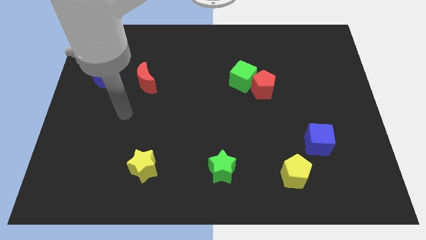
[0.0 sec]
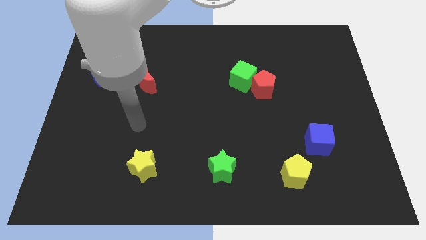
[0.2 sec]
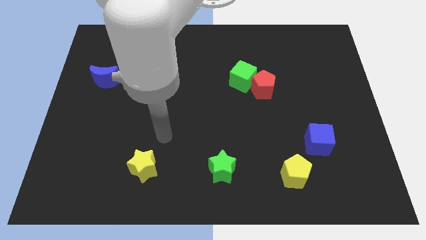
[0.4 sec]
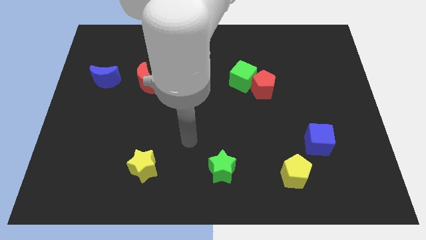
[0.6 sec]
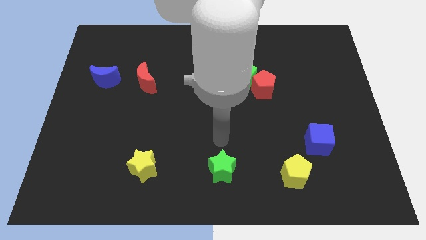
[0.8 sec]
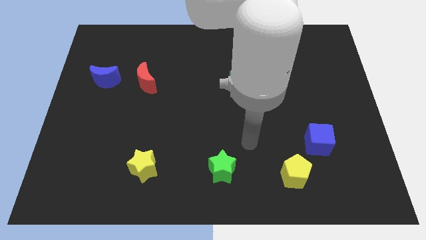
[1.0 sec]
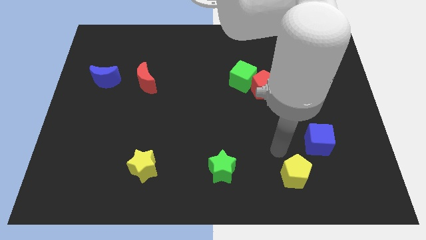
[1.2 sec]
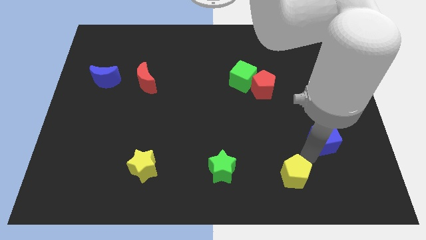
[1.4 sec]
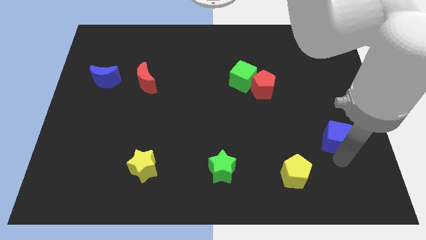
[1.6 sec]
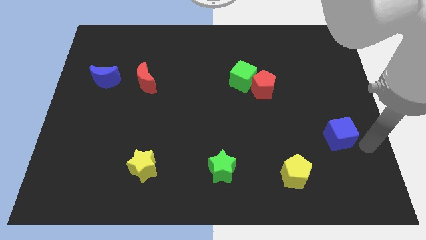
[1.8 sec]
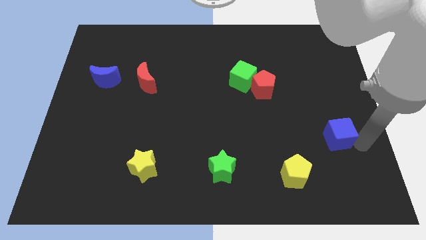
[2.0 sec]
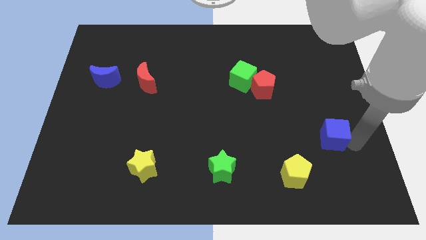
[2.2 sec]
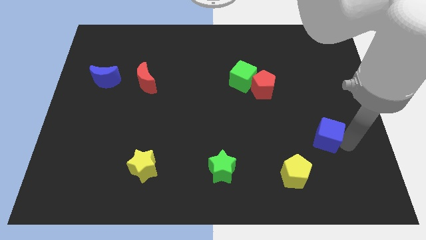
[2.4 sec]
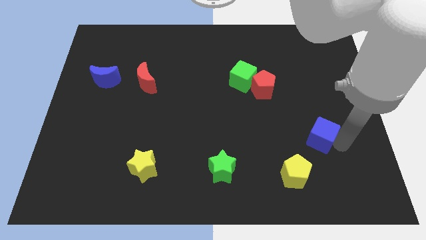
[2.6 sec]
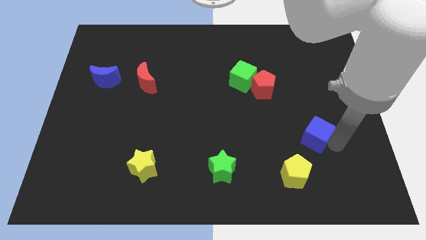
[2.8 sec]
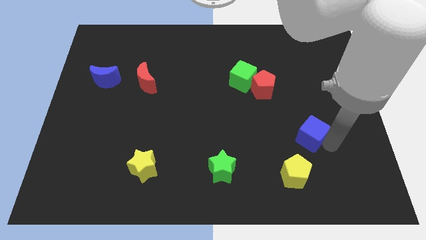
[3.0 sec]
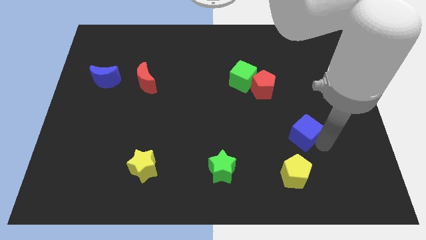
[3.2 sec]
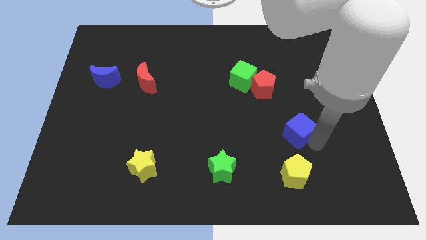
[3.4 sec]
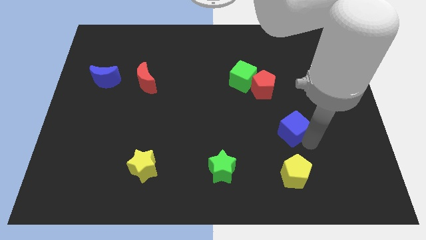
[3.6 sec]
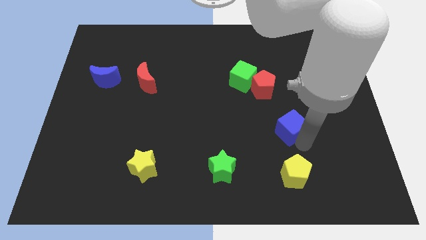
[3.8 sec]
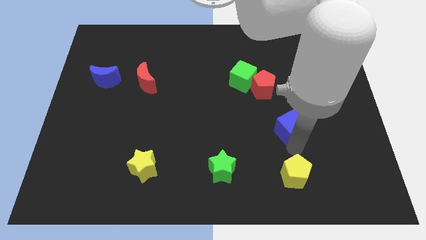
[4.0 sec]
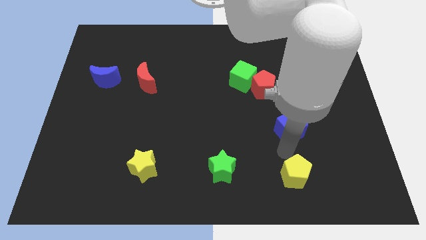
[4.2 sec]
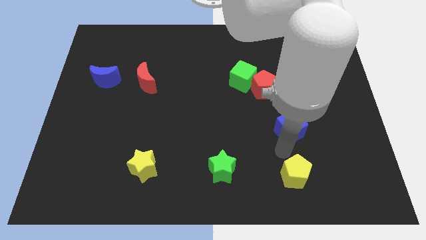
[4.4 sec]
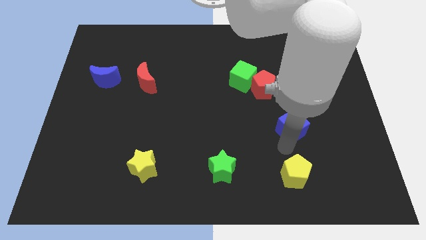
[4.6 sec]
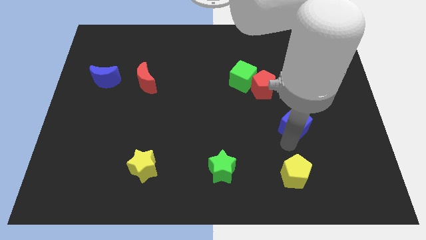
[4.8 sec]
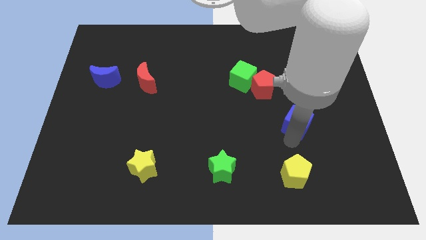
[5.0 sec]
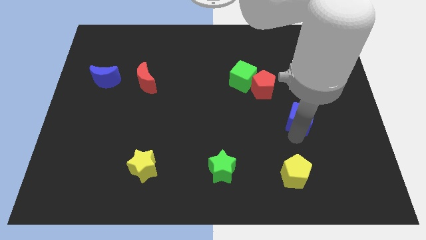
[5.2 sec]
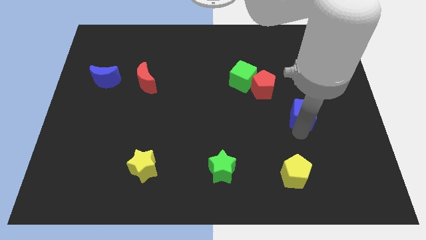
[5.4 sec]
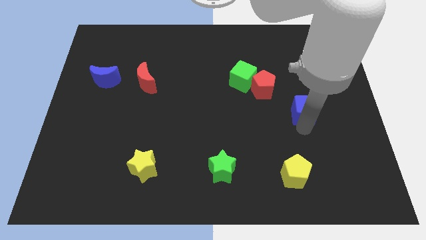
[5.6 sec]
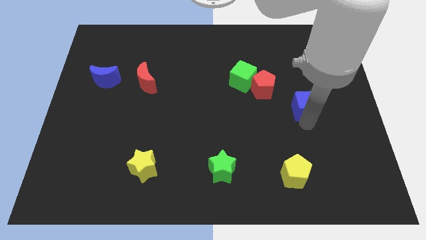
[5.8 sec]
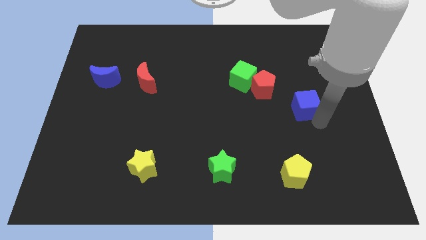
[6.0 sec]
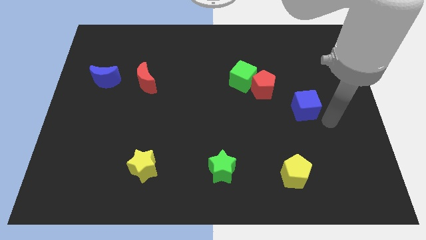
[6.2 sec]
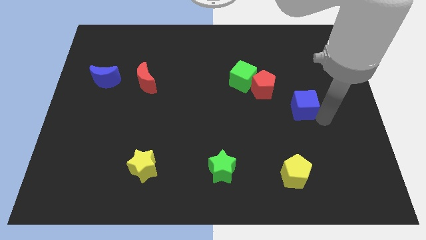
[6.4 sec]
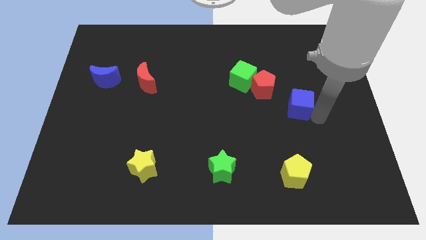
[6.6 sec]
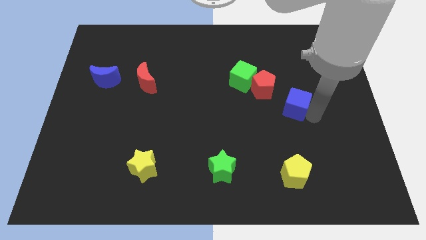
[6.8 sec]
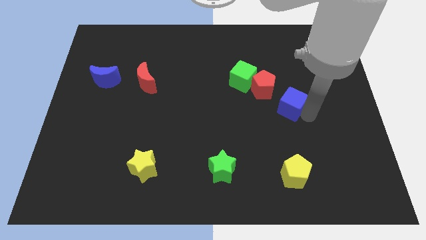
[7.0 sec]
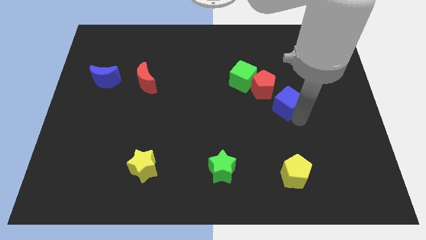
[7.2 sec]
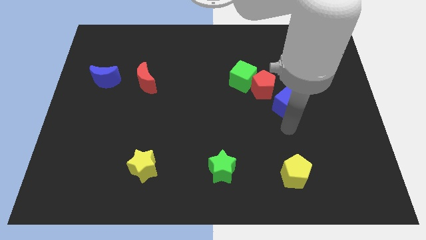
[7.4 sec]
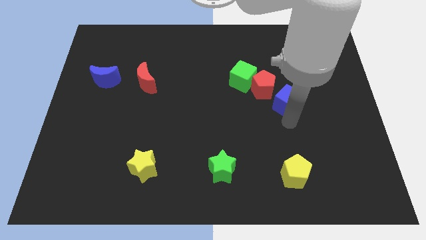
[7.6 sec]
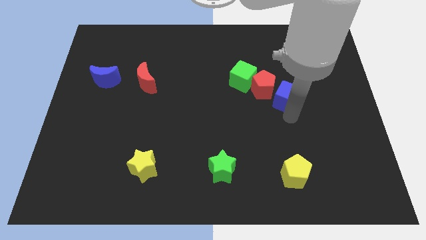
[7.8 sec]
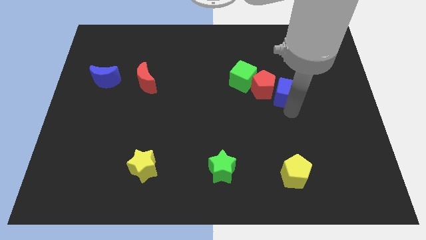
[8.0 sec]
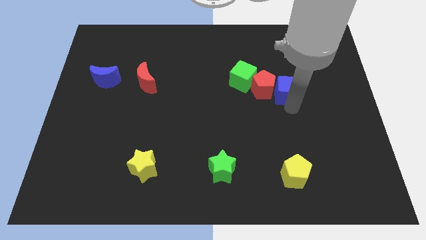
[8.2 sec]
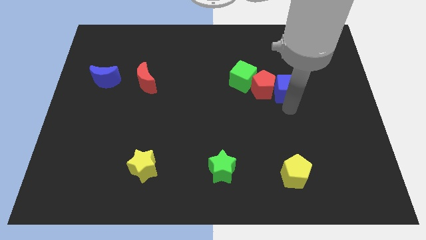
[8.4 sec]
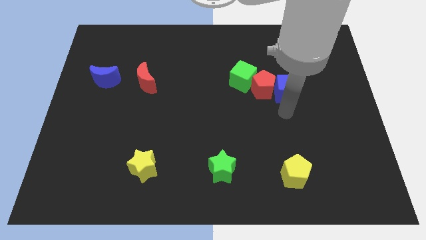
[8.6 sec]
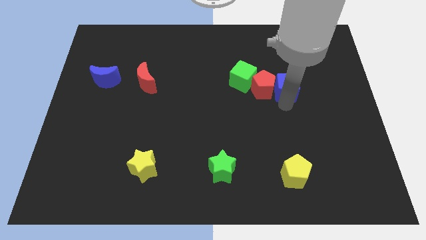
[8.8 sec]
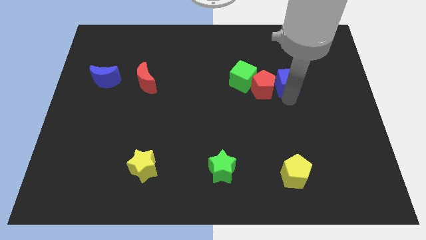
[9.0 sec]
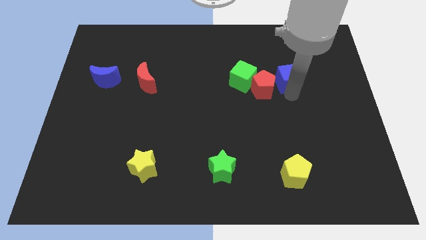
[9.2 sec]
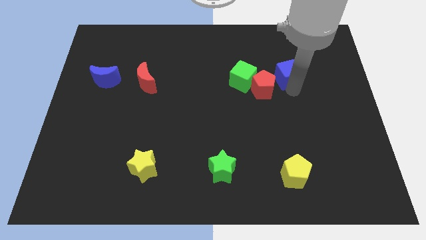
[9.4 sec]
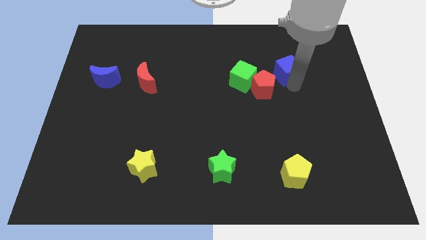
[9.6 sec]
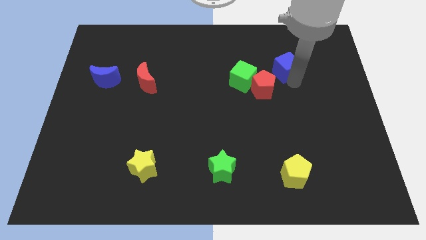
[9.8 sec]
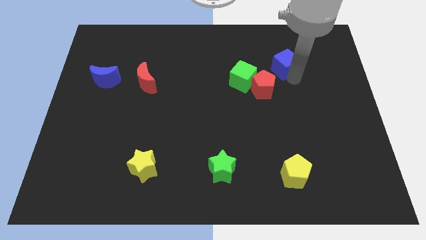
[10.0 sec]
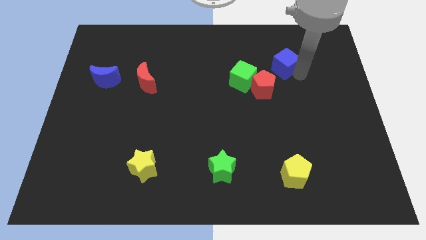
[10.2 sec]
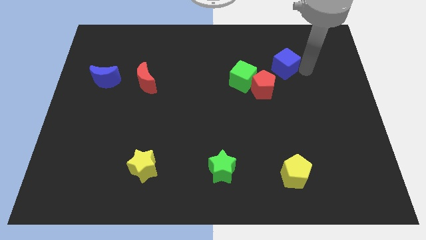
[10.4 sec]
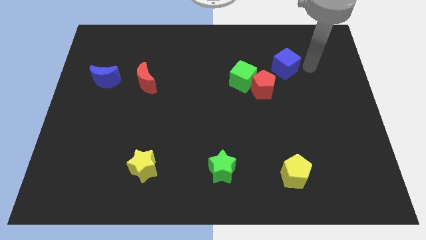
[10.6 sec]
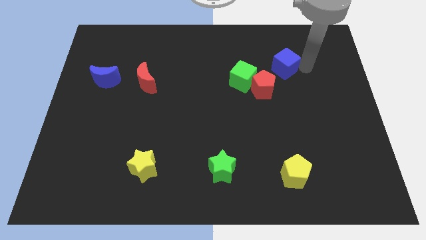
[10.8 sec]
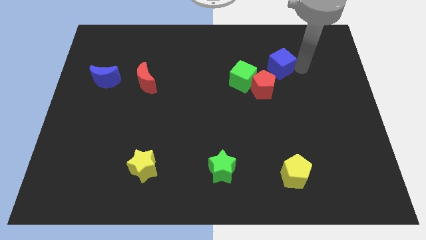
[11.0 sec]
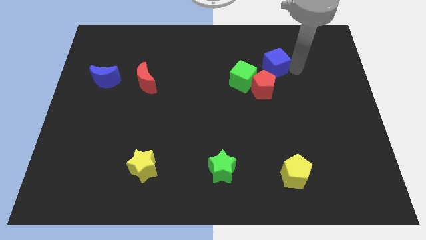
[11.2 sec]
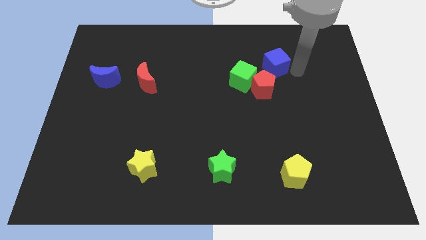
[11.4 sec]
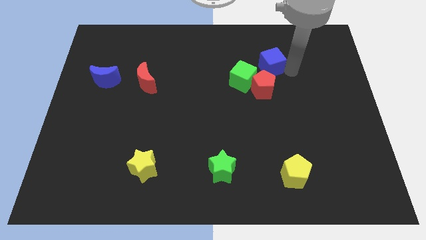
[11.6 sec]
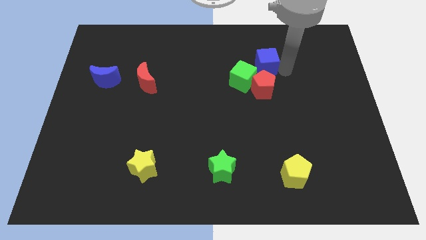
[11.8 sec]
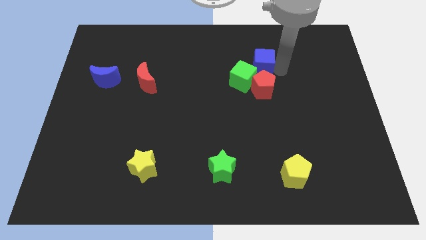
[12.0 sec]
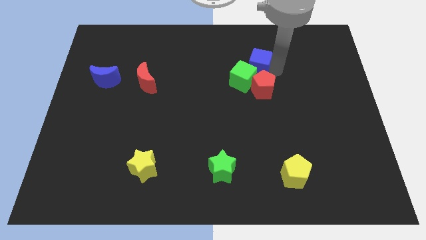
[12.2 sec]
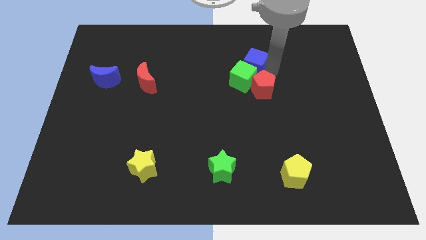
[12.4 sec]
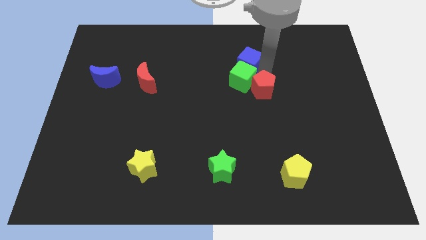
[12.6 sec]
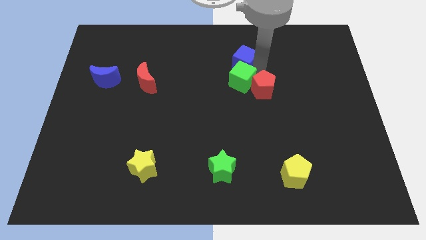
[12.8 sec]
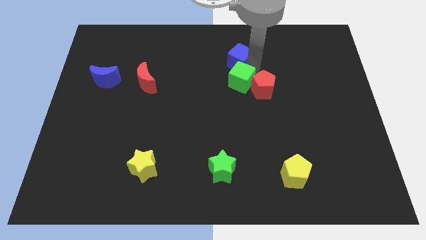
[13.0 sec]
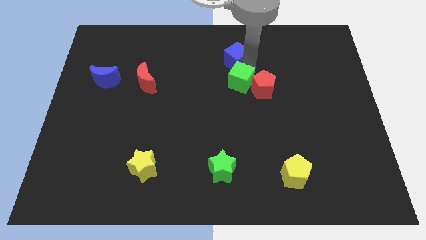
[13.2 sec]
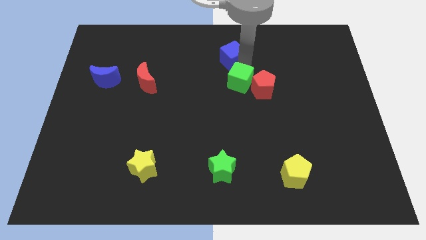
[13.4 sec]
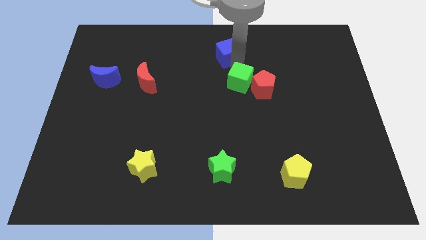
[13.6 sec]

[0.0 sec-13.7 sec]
slide the blue cube to the towards your base

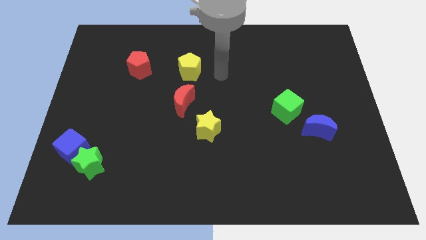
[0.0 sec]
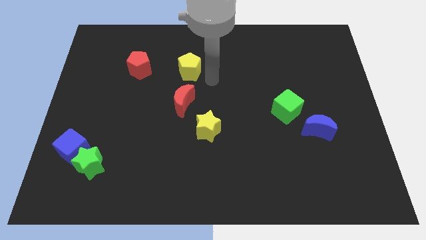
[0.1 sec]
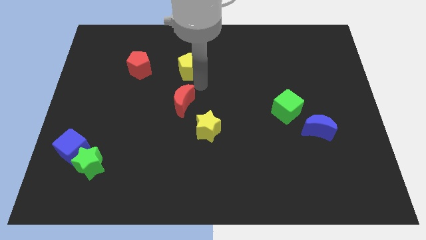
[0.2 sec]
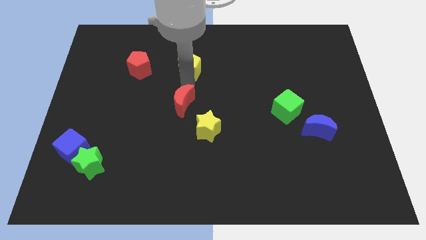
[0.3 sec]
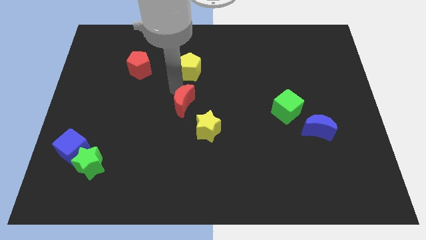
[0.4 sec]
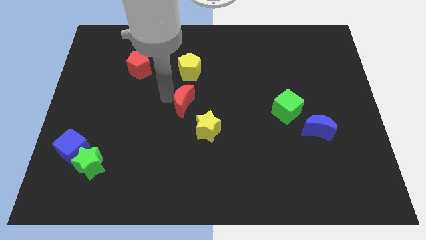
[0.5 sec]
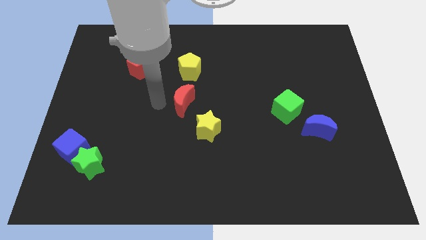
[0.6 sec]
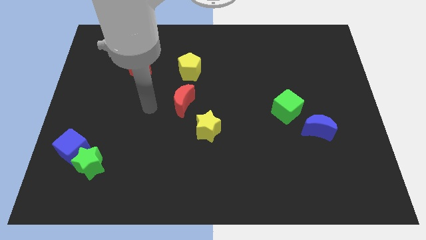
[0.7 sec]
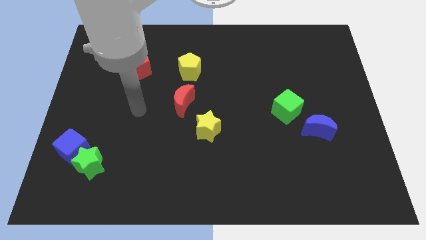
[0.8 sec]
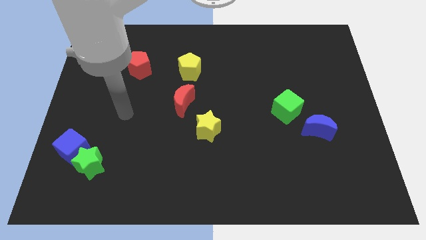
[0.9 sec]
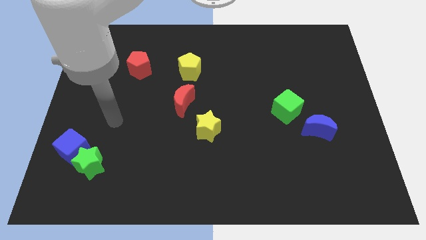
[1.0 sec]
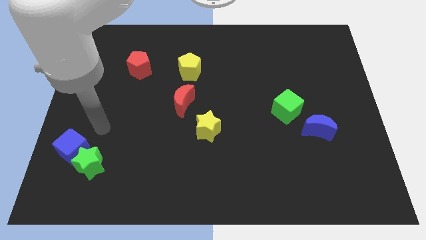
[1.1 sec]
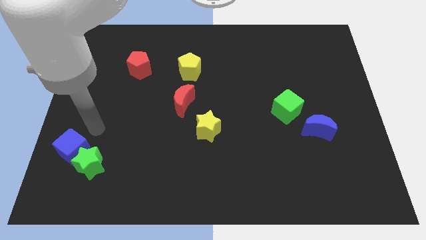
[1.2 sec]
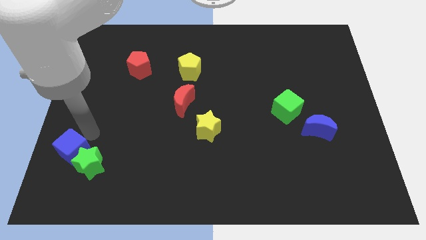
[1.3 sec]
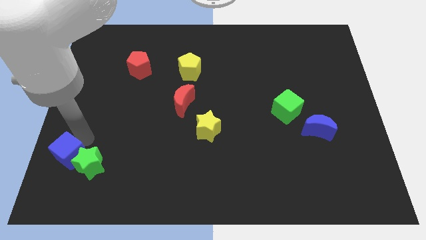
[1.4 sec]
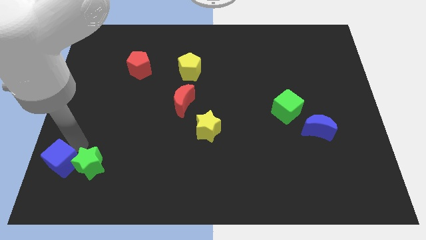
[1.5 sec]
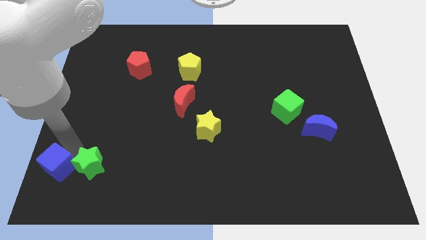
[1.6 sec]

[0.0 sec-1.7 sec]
slide the blue cube to the bottom left of the board
